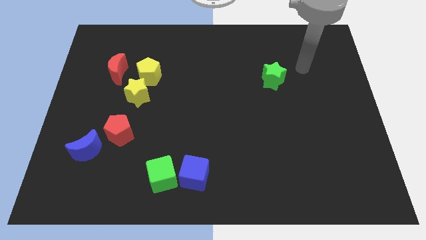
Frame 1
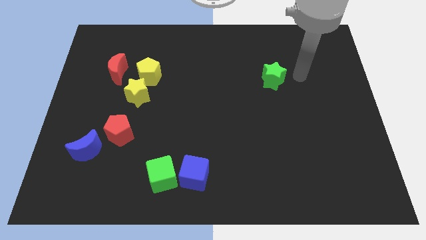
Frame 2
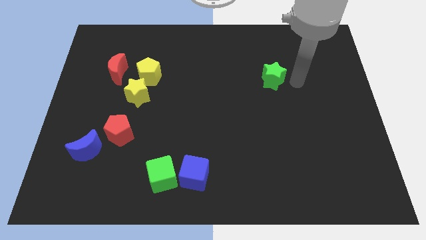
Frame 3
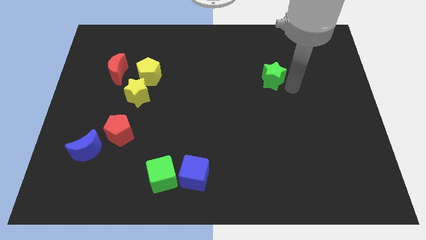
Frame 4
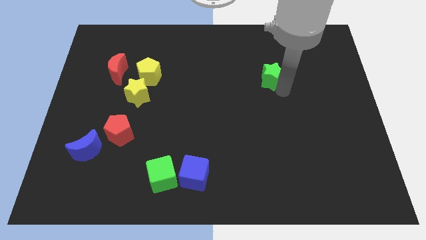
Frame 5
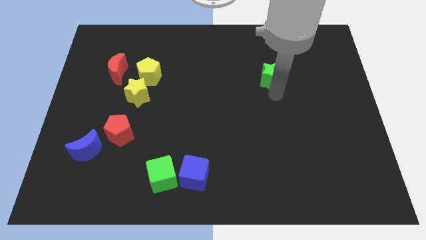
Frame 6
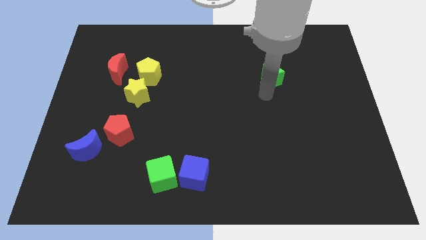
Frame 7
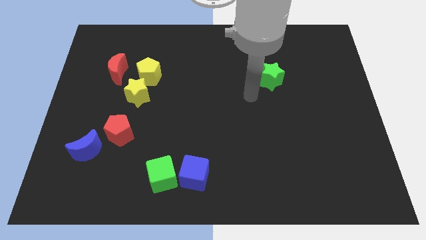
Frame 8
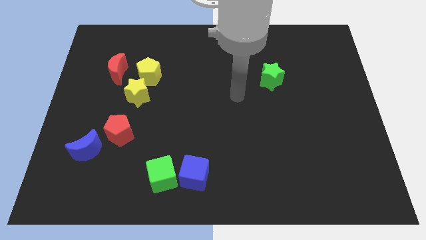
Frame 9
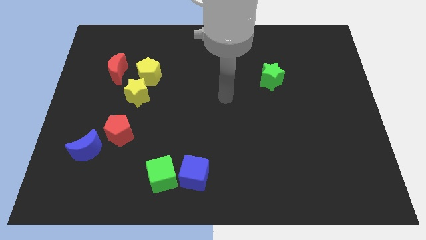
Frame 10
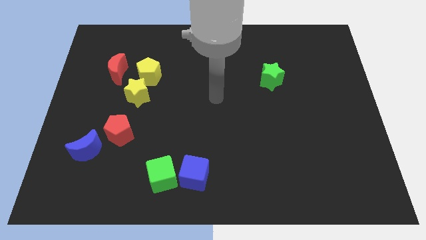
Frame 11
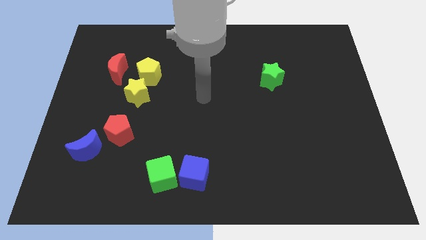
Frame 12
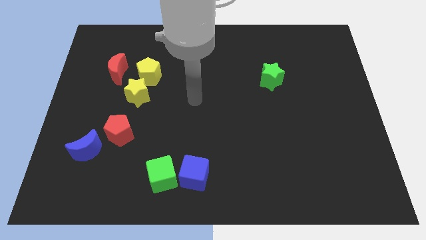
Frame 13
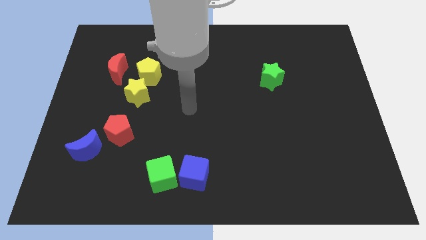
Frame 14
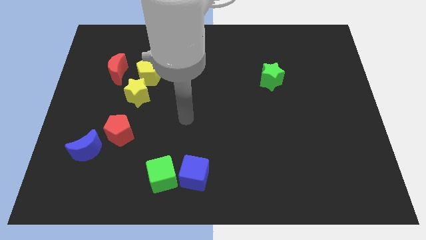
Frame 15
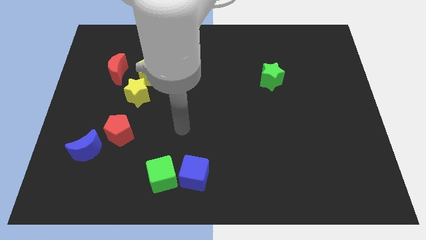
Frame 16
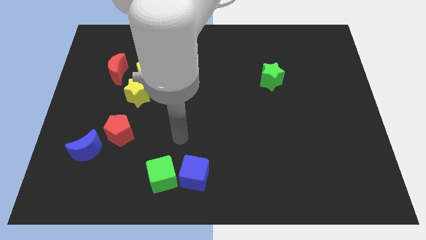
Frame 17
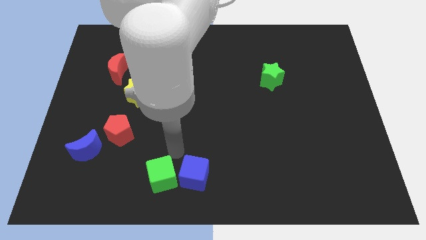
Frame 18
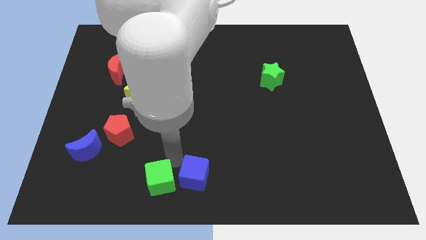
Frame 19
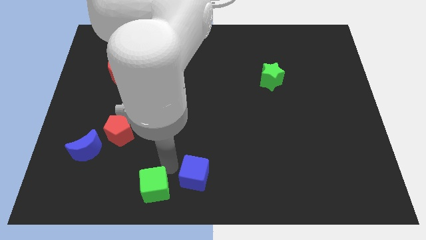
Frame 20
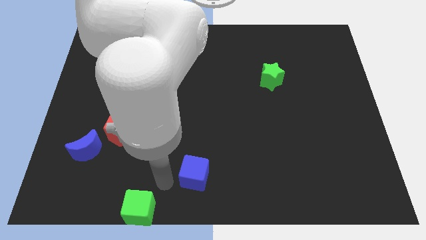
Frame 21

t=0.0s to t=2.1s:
move the blue cube away from the green cube

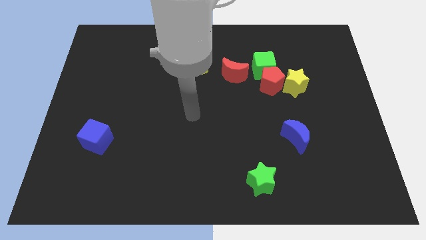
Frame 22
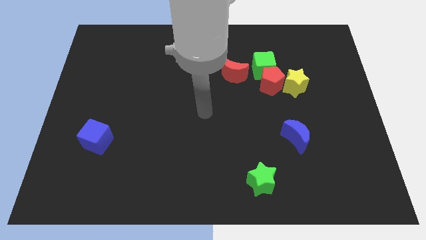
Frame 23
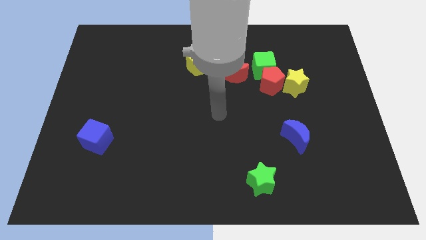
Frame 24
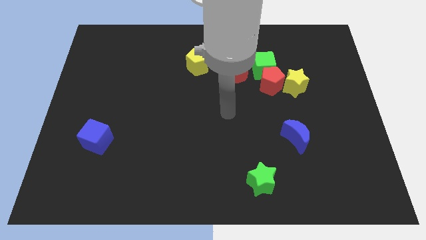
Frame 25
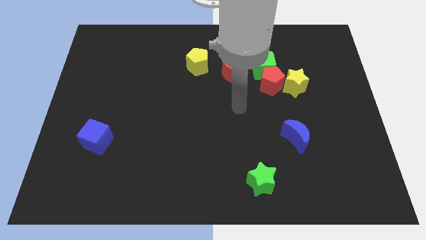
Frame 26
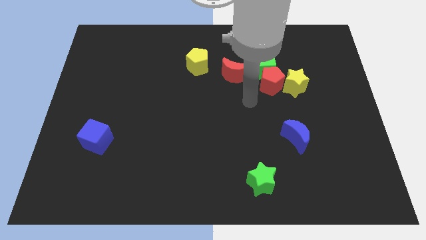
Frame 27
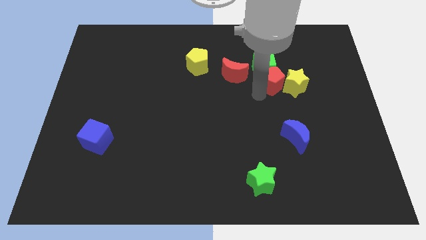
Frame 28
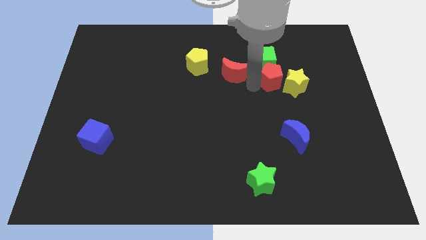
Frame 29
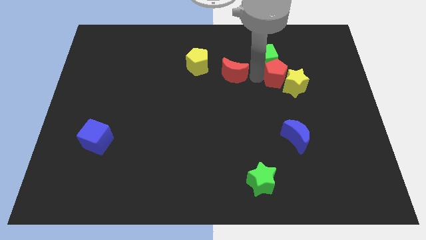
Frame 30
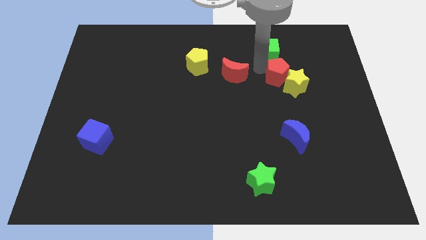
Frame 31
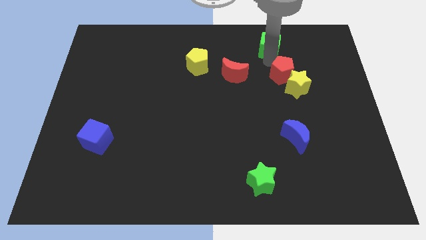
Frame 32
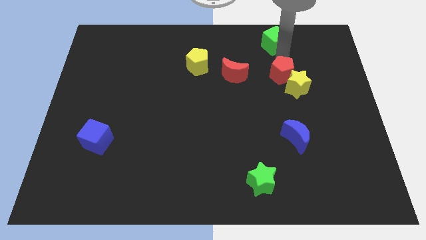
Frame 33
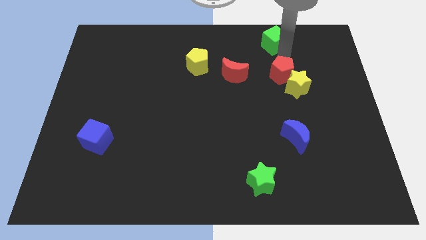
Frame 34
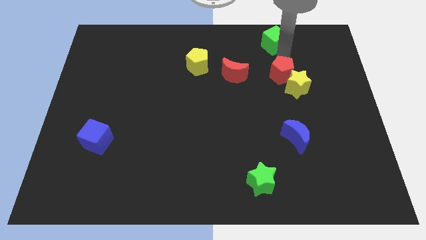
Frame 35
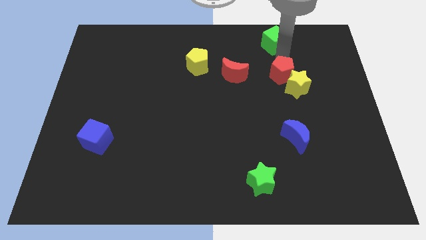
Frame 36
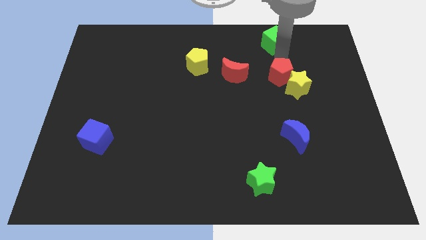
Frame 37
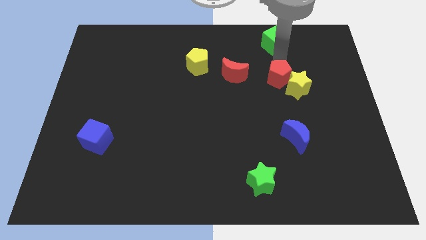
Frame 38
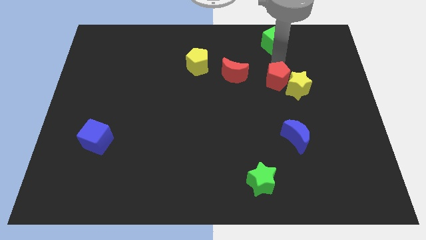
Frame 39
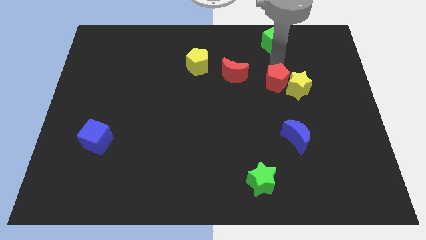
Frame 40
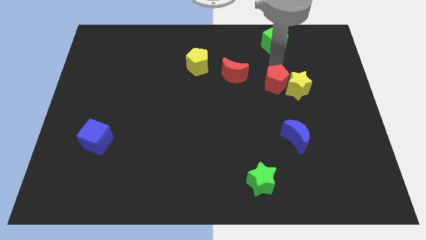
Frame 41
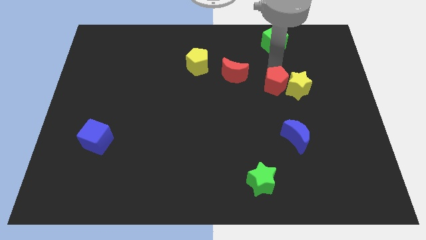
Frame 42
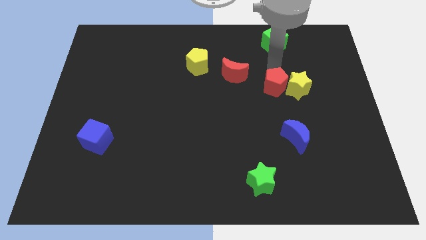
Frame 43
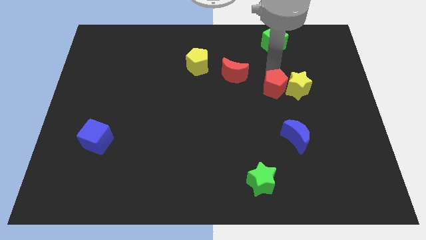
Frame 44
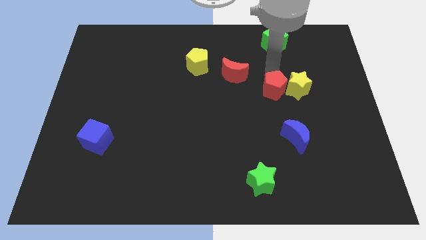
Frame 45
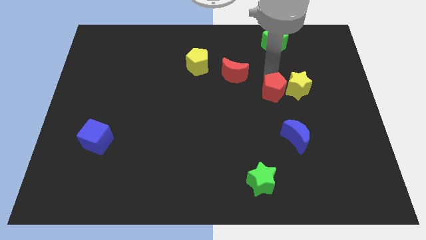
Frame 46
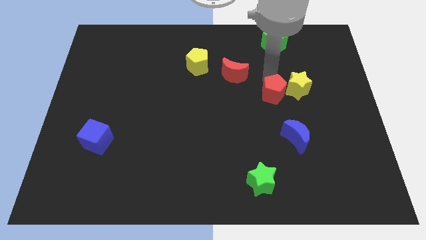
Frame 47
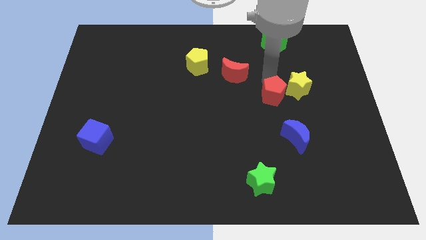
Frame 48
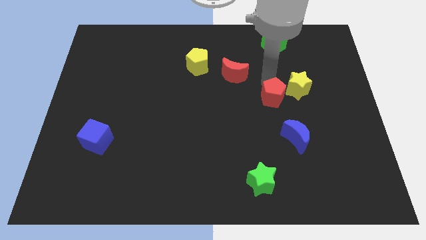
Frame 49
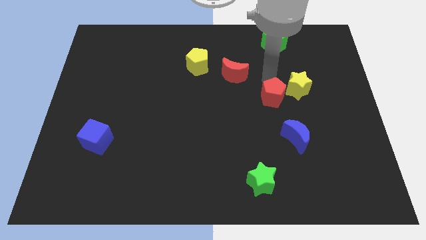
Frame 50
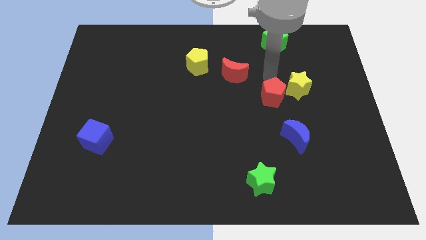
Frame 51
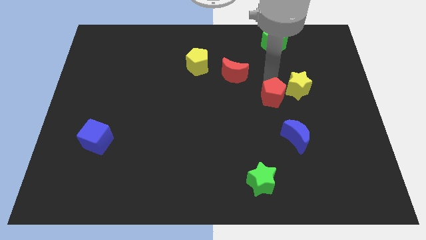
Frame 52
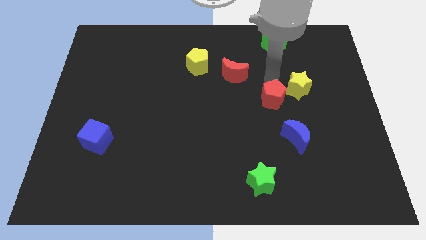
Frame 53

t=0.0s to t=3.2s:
move the red pentagon away from the green cube, yellow star, and red moon

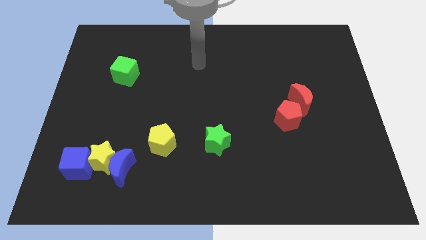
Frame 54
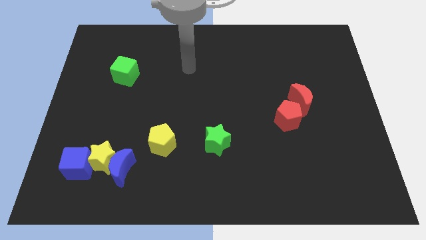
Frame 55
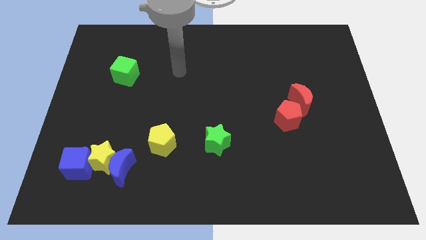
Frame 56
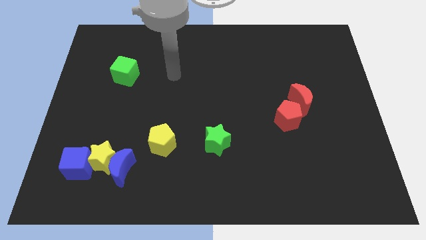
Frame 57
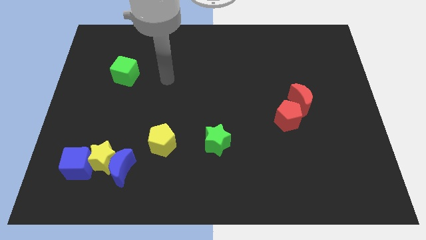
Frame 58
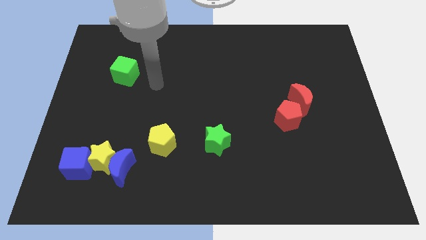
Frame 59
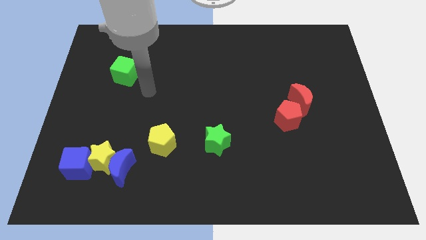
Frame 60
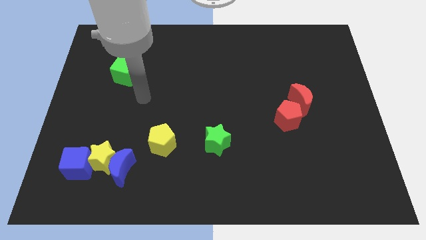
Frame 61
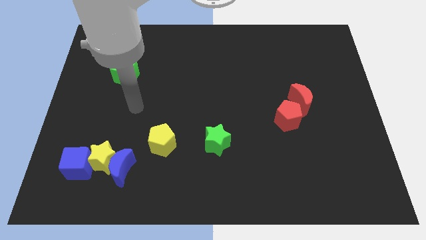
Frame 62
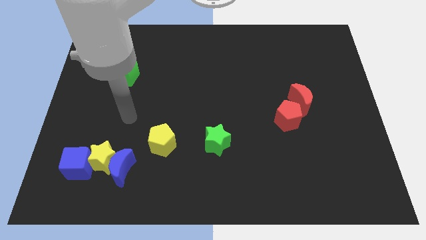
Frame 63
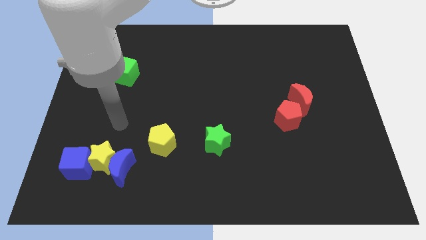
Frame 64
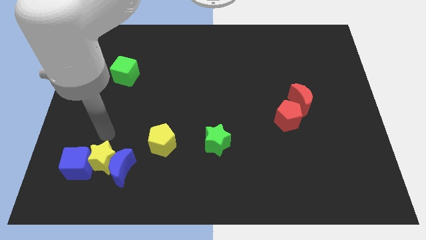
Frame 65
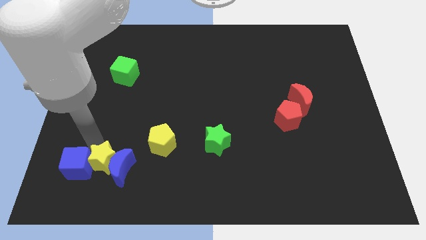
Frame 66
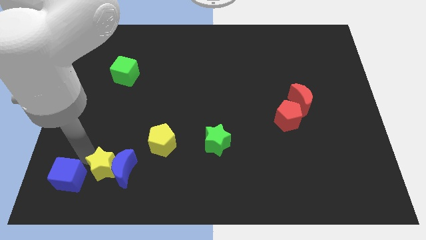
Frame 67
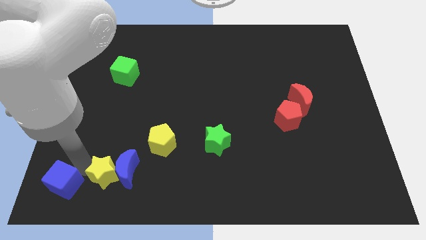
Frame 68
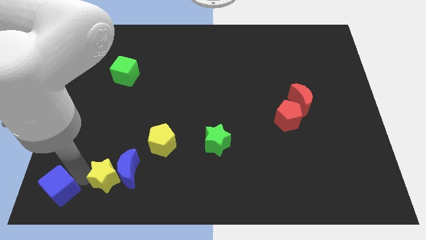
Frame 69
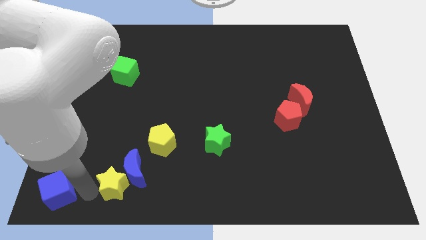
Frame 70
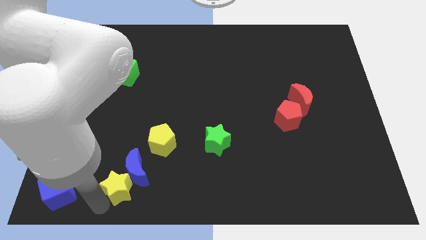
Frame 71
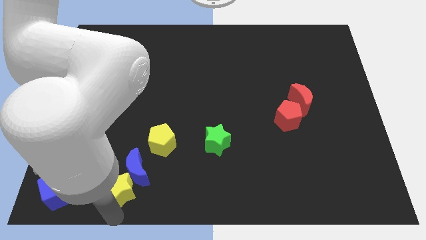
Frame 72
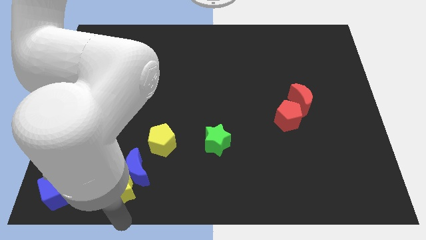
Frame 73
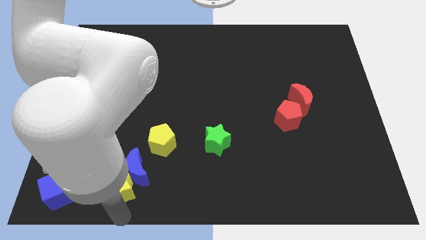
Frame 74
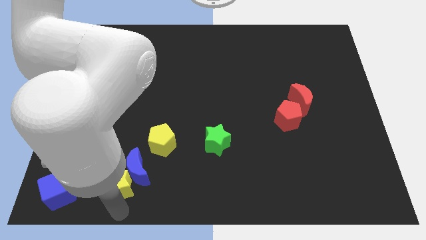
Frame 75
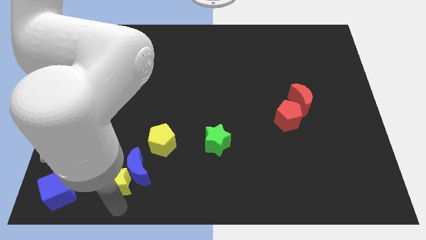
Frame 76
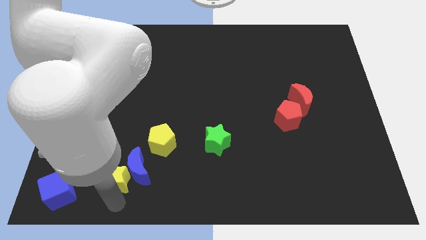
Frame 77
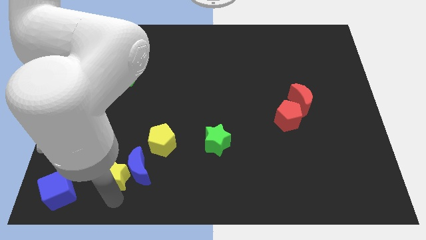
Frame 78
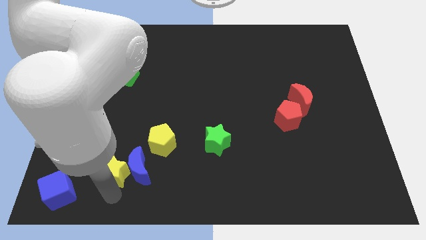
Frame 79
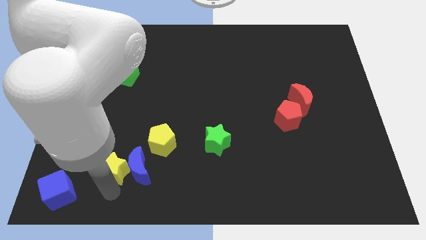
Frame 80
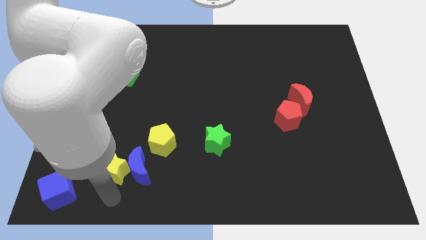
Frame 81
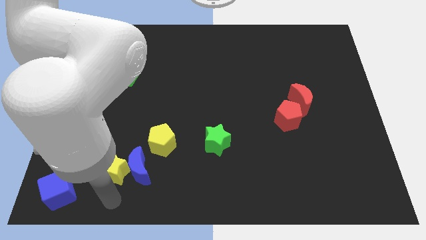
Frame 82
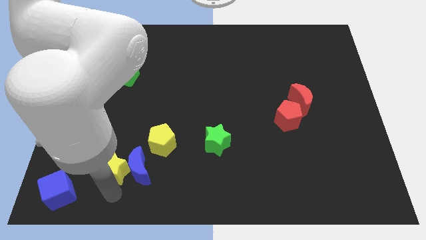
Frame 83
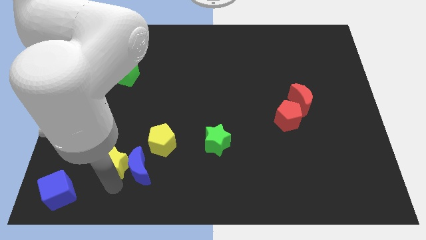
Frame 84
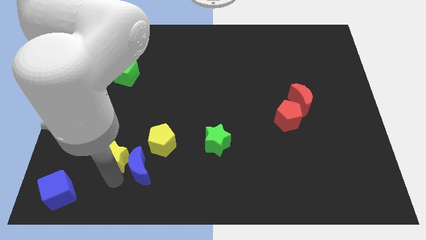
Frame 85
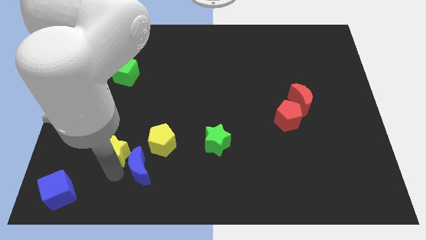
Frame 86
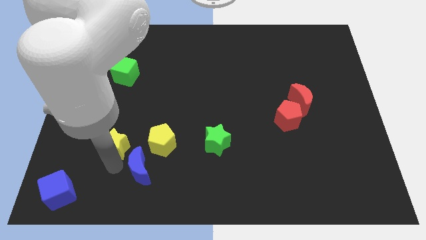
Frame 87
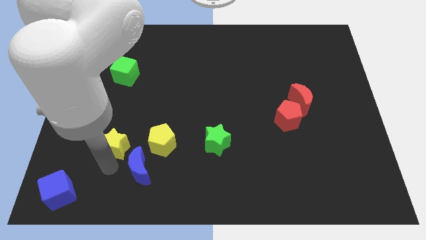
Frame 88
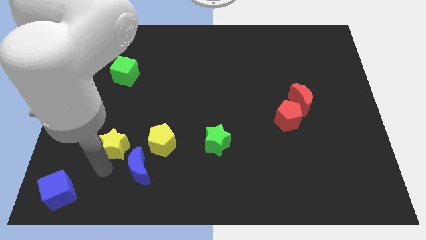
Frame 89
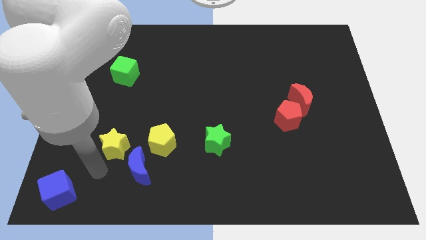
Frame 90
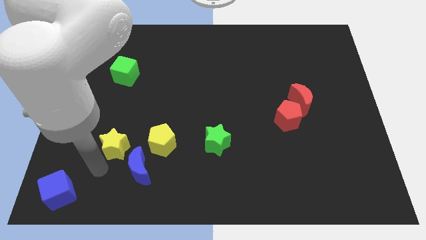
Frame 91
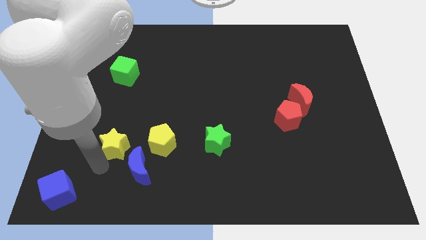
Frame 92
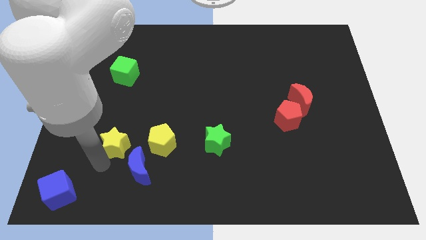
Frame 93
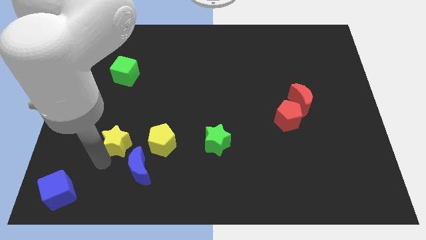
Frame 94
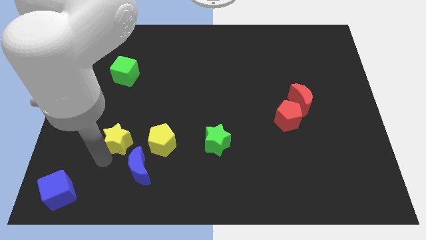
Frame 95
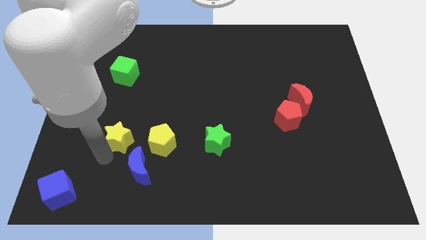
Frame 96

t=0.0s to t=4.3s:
pull the yellow star apart from the blue moon and blue cube
